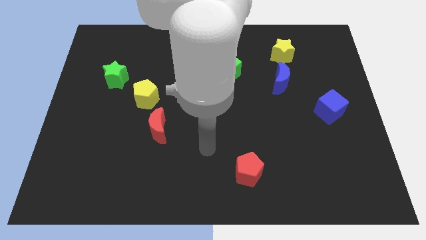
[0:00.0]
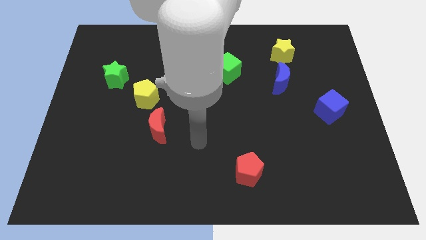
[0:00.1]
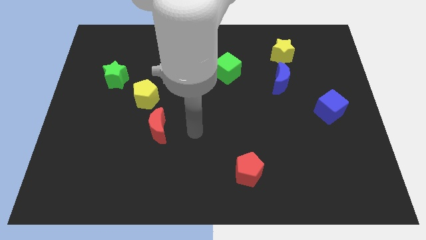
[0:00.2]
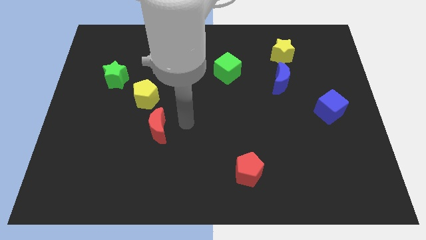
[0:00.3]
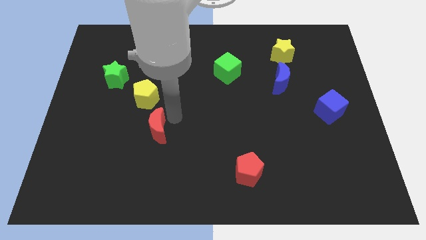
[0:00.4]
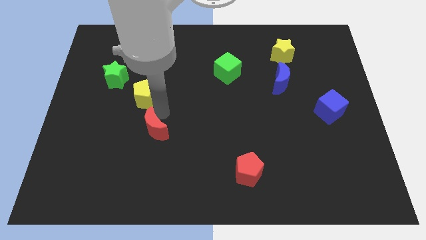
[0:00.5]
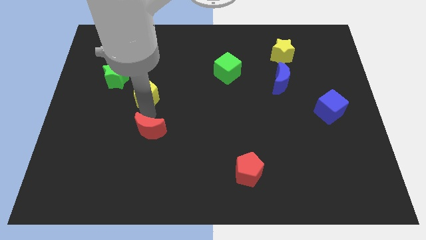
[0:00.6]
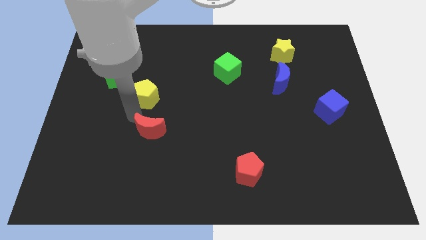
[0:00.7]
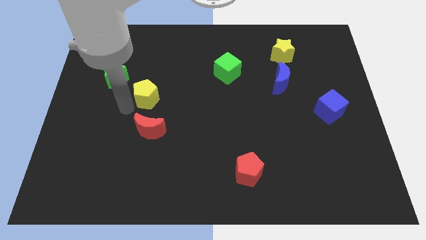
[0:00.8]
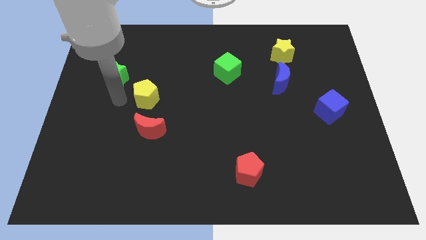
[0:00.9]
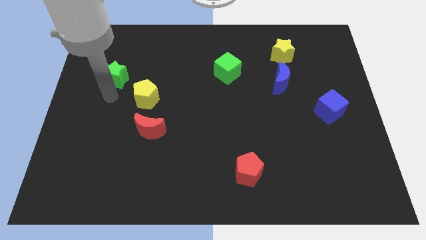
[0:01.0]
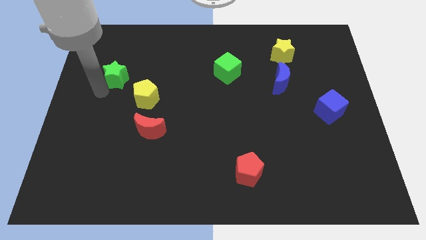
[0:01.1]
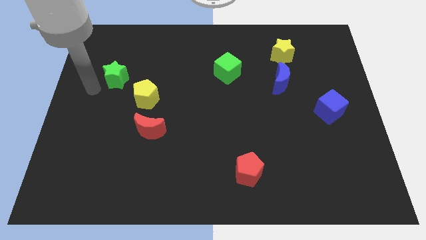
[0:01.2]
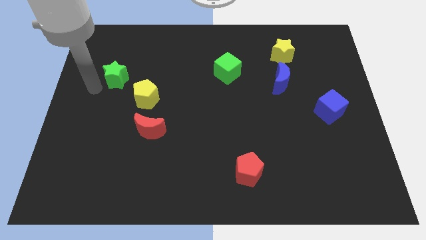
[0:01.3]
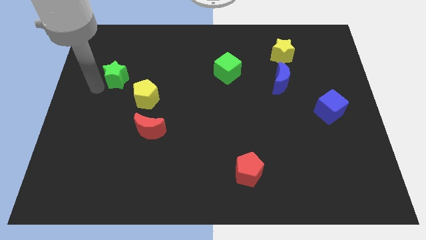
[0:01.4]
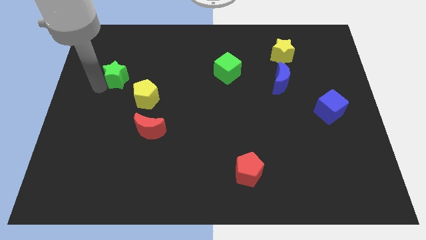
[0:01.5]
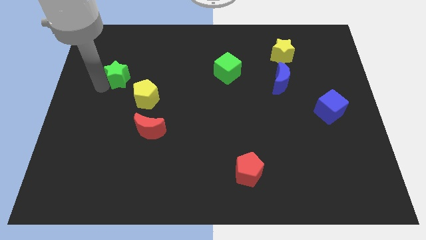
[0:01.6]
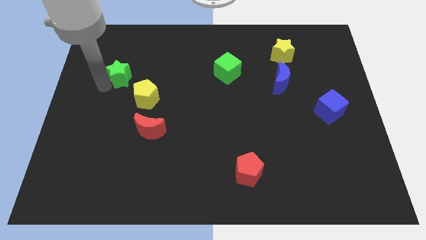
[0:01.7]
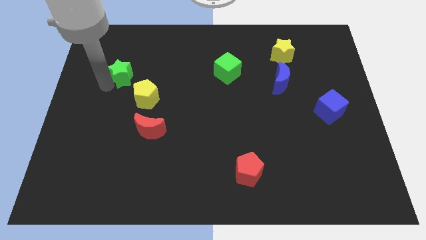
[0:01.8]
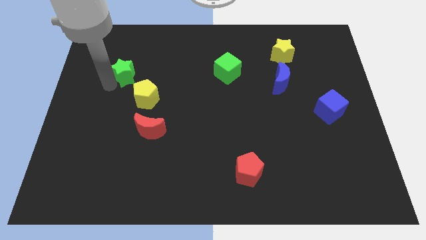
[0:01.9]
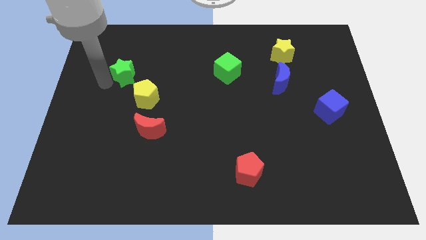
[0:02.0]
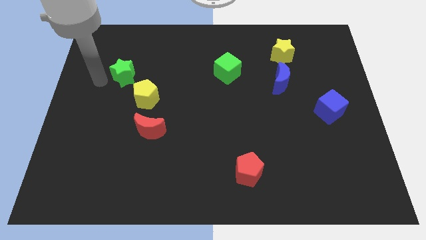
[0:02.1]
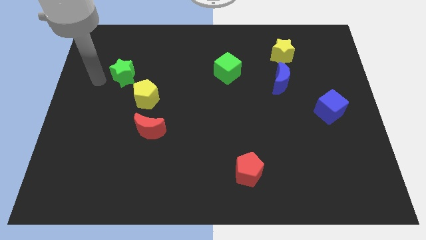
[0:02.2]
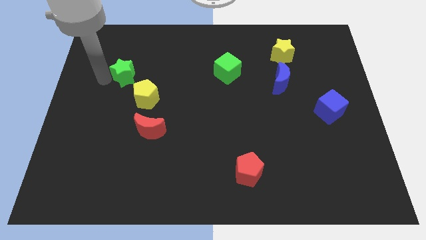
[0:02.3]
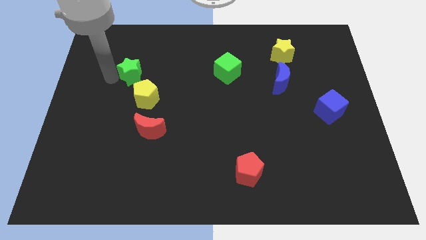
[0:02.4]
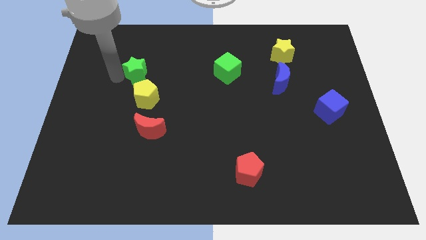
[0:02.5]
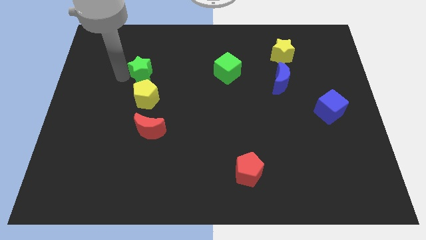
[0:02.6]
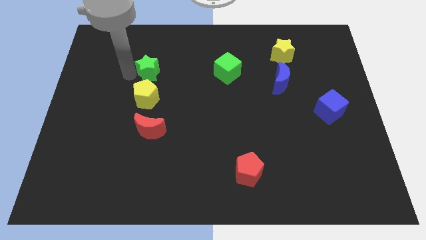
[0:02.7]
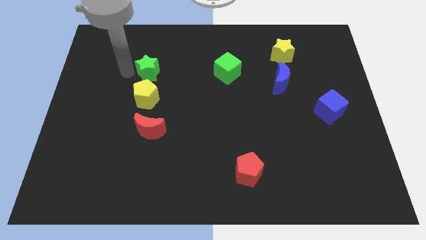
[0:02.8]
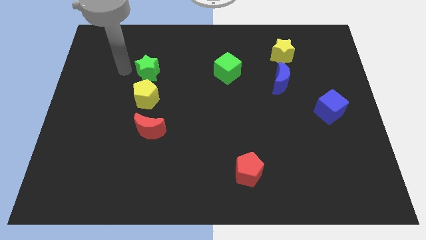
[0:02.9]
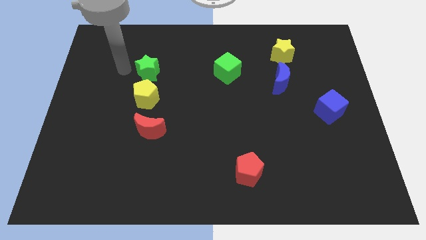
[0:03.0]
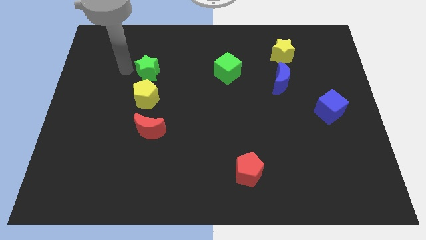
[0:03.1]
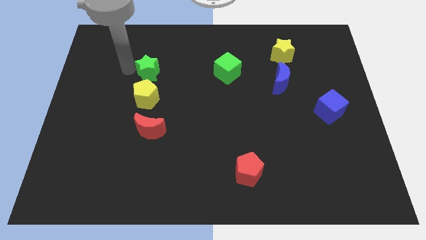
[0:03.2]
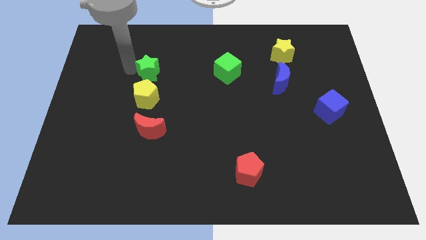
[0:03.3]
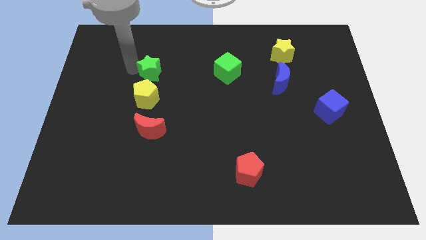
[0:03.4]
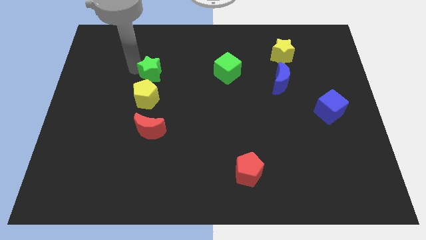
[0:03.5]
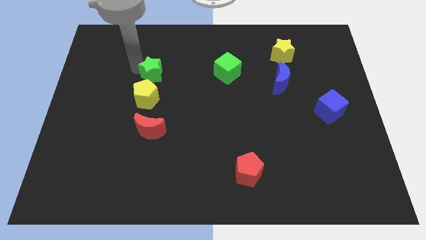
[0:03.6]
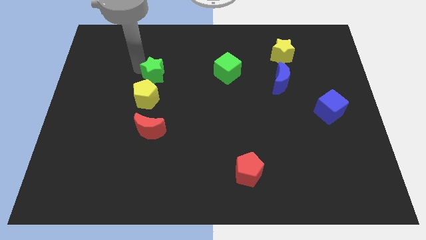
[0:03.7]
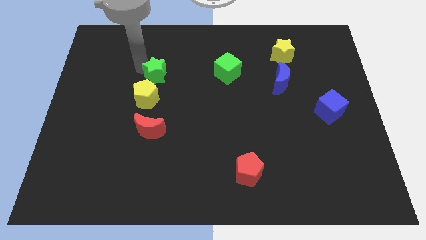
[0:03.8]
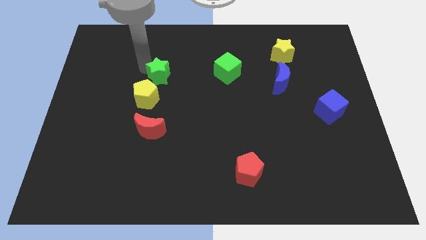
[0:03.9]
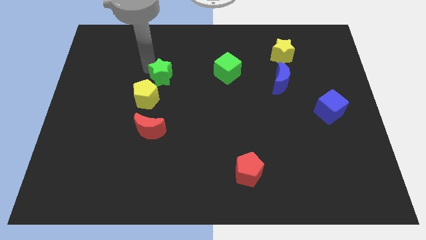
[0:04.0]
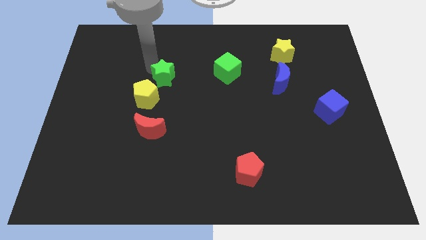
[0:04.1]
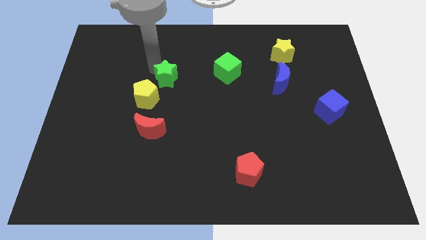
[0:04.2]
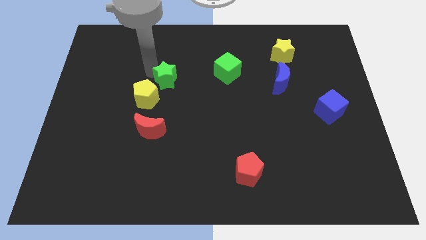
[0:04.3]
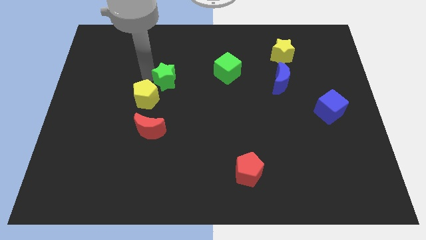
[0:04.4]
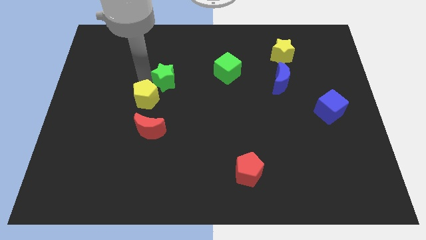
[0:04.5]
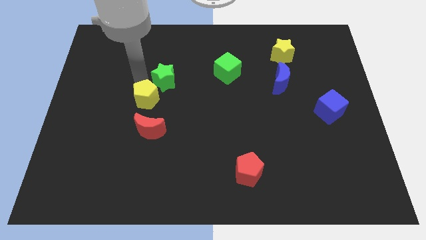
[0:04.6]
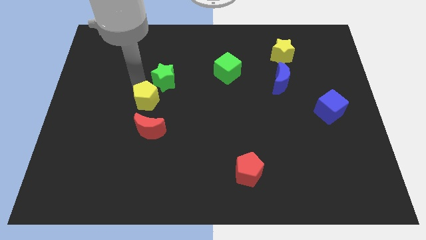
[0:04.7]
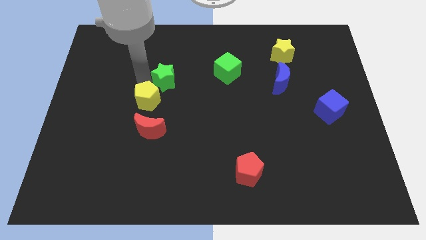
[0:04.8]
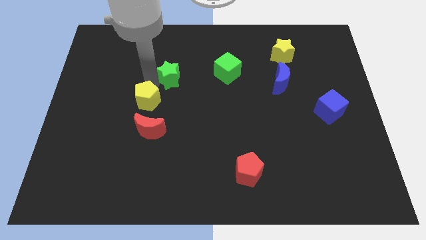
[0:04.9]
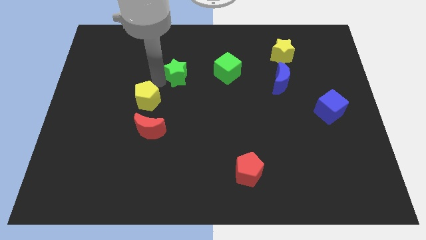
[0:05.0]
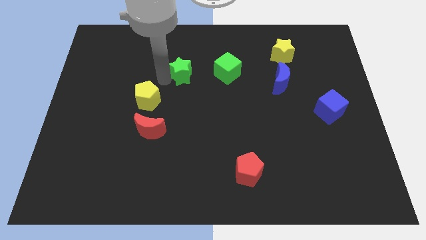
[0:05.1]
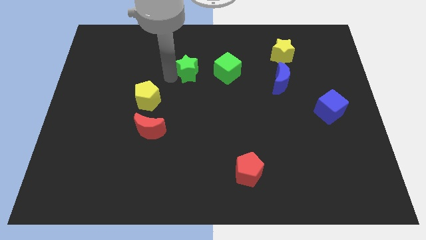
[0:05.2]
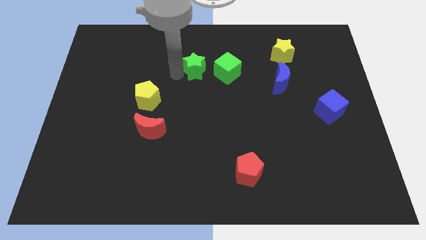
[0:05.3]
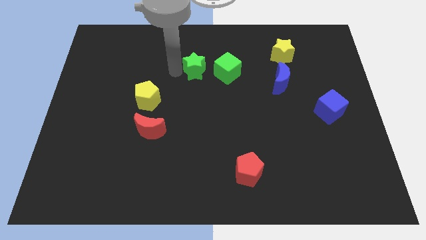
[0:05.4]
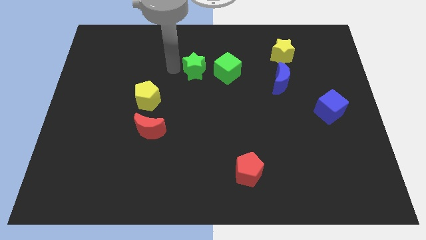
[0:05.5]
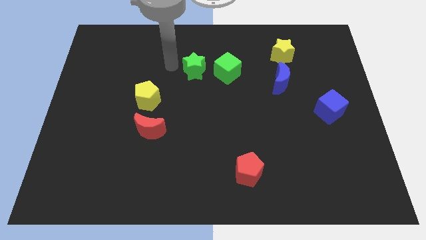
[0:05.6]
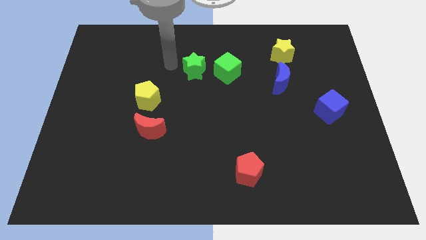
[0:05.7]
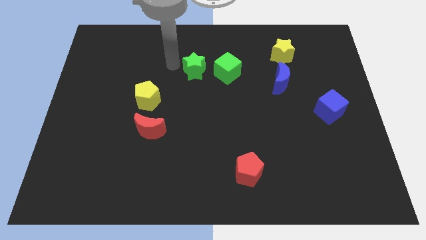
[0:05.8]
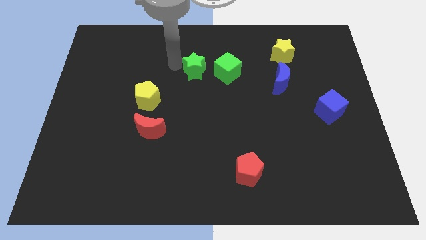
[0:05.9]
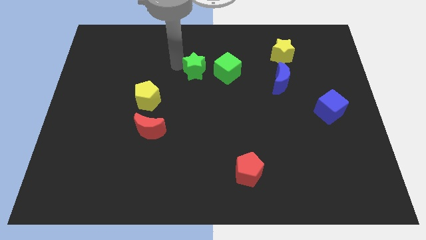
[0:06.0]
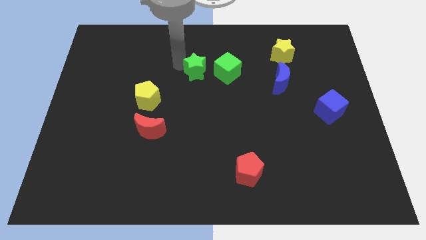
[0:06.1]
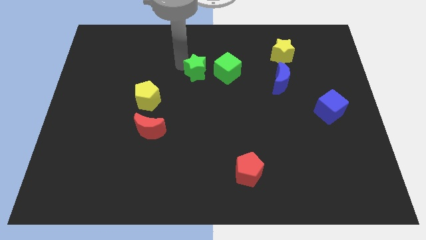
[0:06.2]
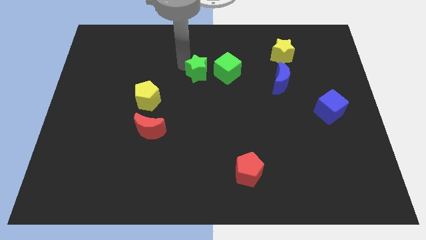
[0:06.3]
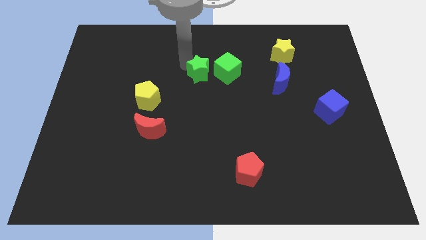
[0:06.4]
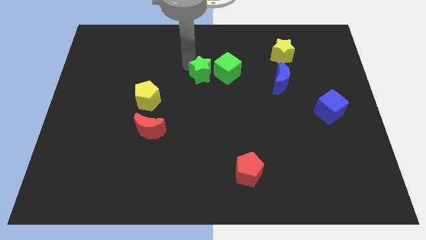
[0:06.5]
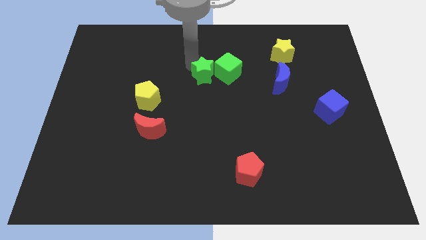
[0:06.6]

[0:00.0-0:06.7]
move the green star to the green cube
